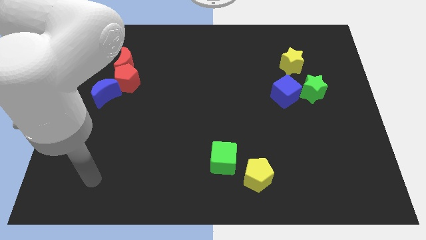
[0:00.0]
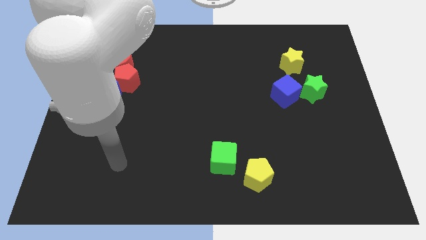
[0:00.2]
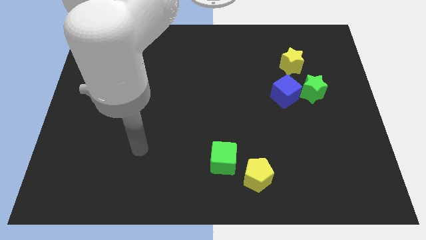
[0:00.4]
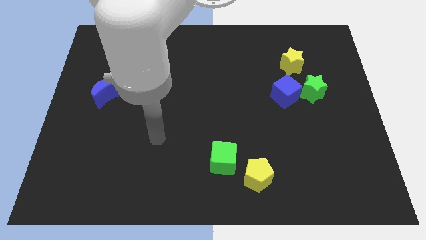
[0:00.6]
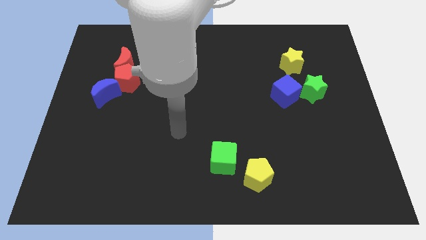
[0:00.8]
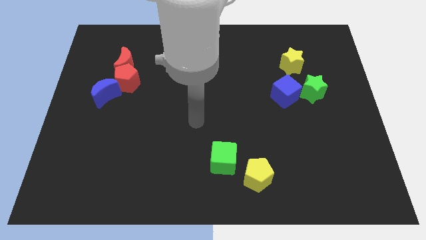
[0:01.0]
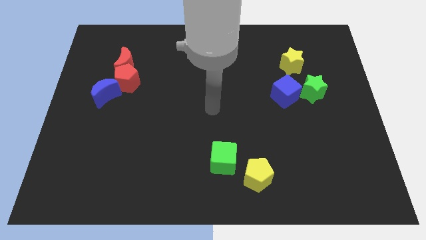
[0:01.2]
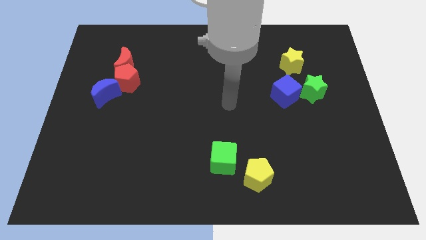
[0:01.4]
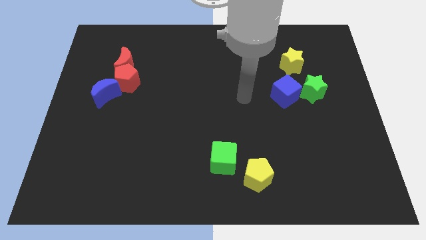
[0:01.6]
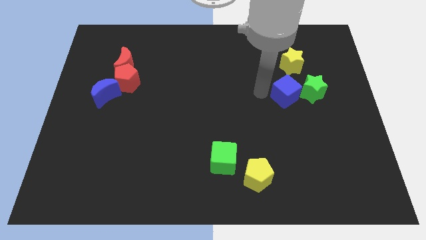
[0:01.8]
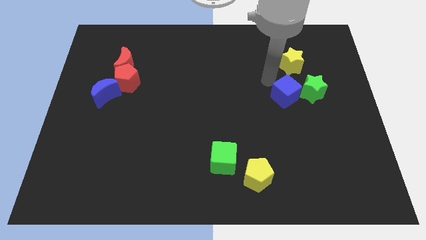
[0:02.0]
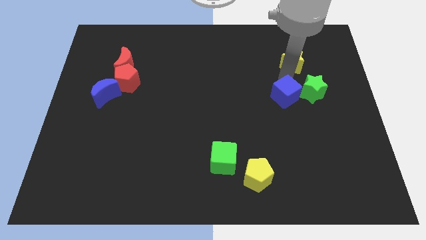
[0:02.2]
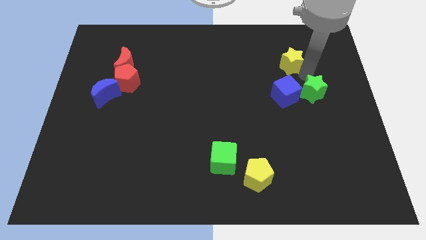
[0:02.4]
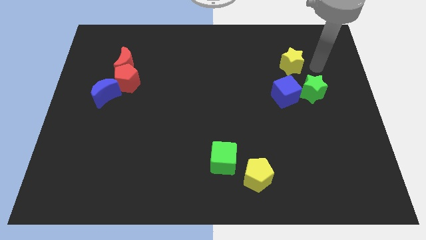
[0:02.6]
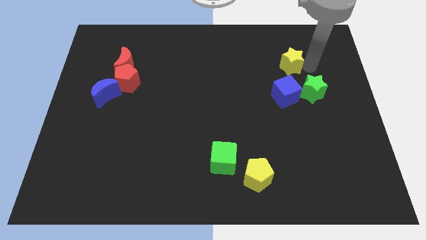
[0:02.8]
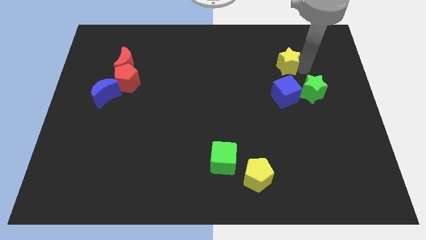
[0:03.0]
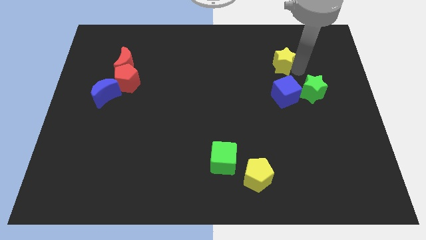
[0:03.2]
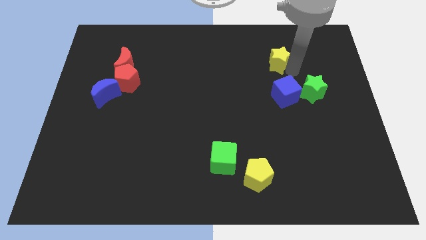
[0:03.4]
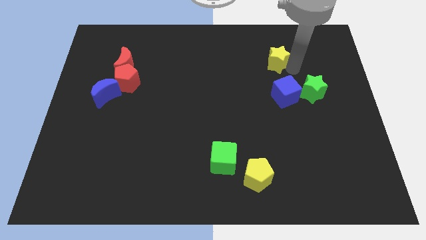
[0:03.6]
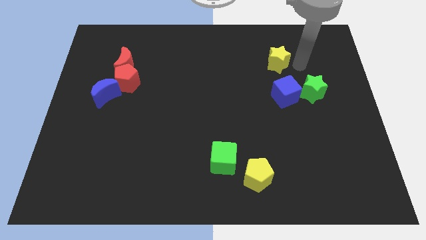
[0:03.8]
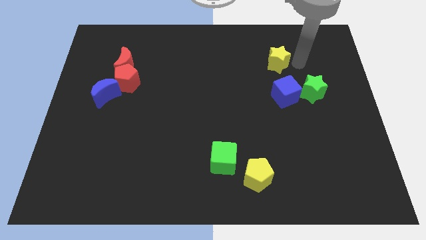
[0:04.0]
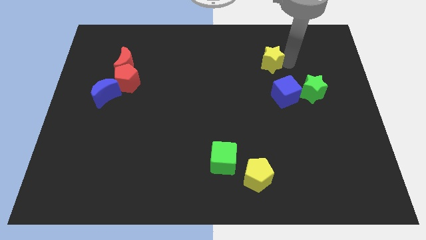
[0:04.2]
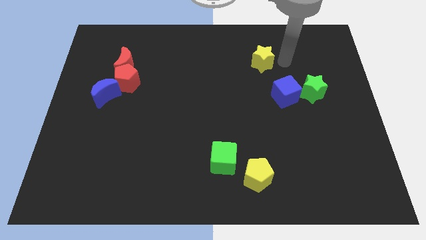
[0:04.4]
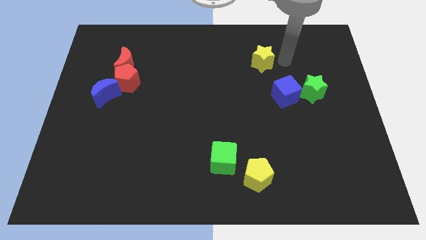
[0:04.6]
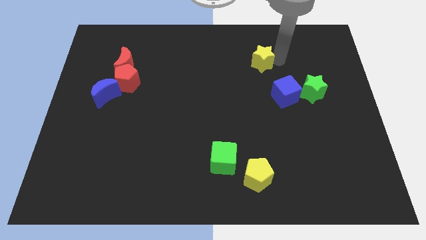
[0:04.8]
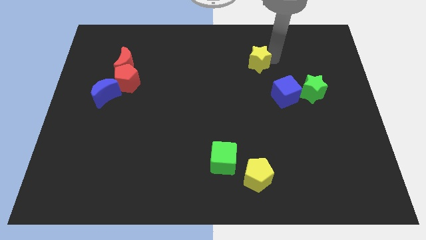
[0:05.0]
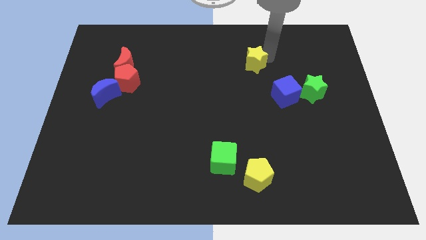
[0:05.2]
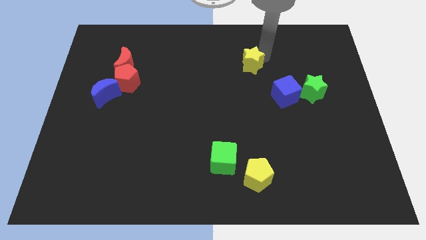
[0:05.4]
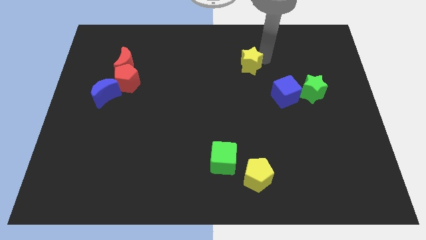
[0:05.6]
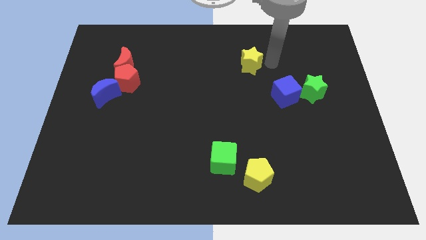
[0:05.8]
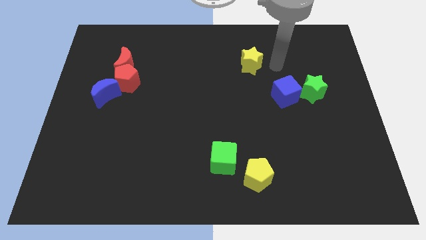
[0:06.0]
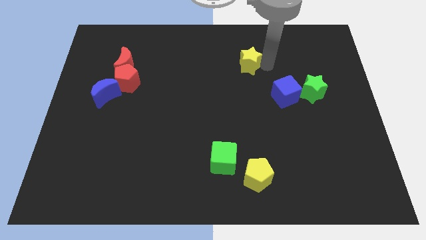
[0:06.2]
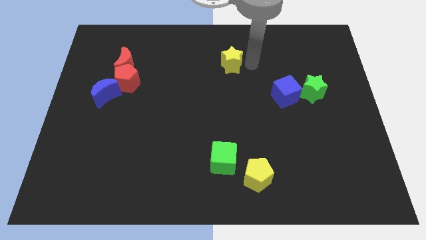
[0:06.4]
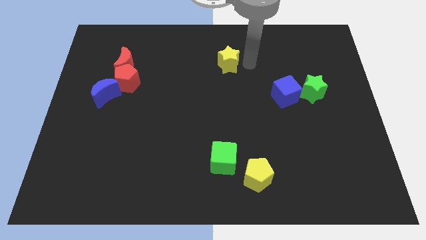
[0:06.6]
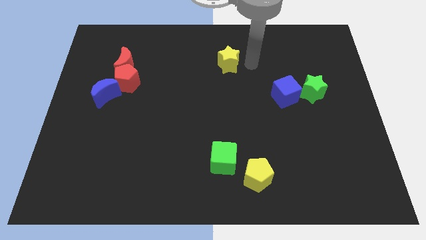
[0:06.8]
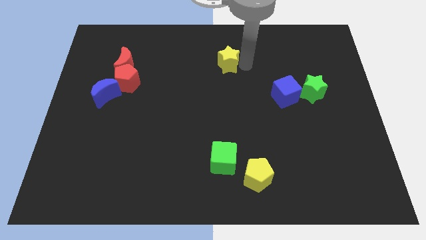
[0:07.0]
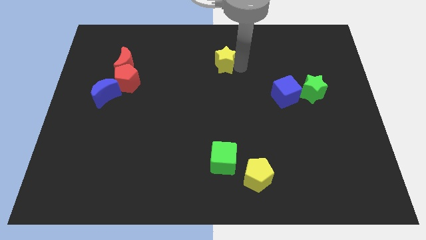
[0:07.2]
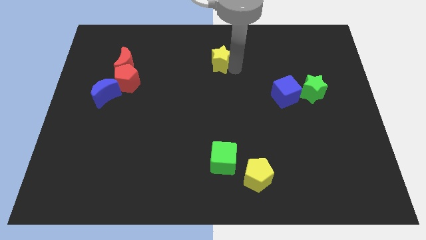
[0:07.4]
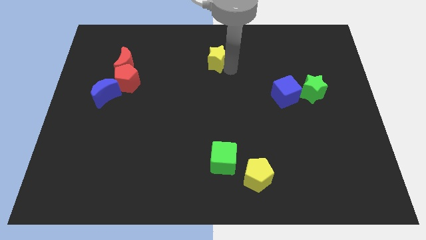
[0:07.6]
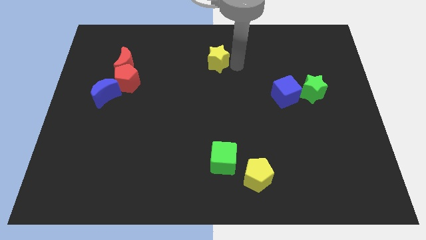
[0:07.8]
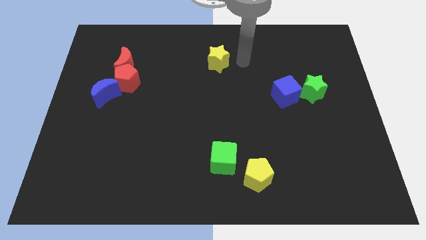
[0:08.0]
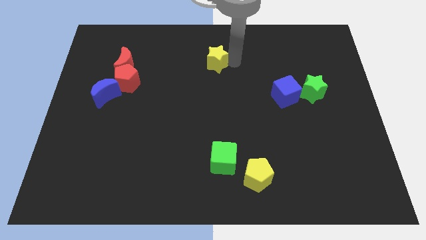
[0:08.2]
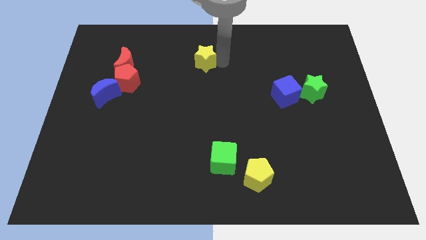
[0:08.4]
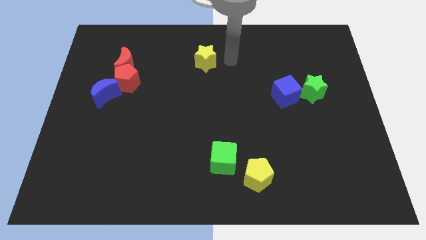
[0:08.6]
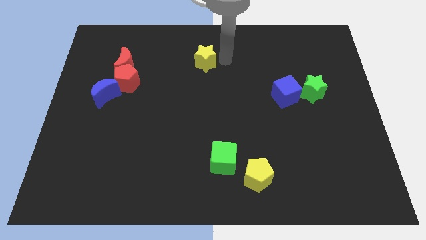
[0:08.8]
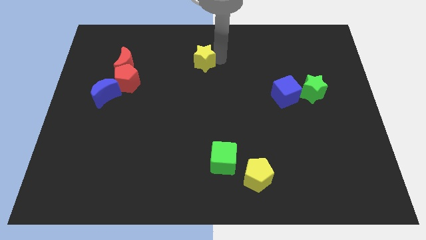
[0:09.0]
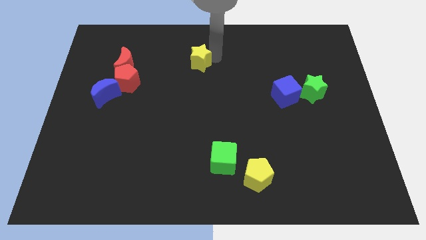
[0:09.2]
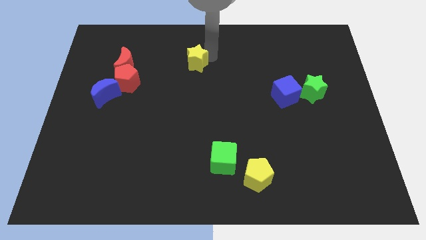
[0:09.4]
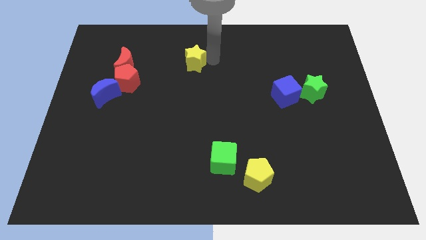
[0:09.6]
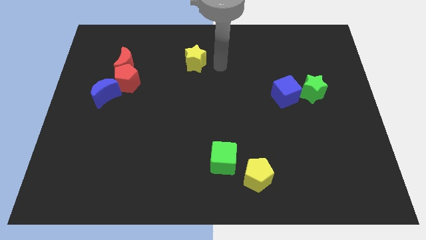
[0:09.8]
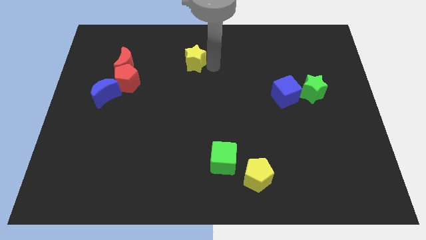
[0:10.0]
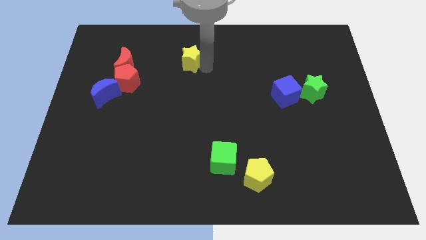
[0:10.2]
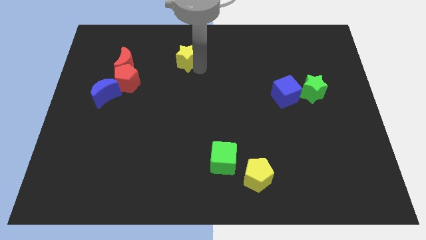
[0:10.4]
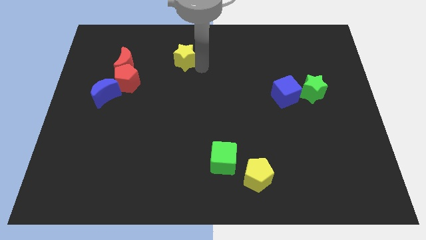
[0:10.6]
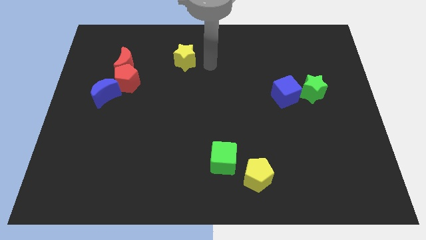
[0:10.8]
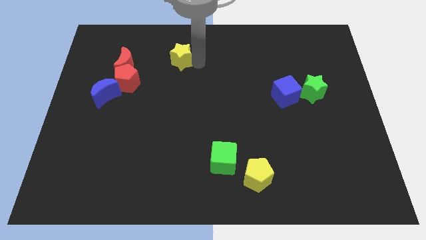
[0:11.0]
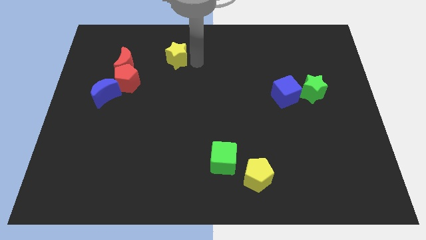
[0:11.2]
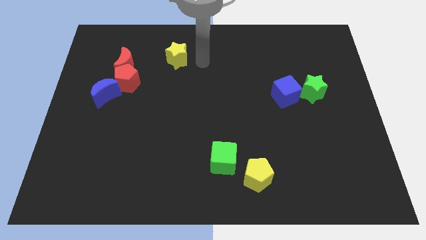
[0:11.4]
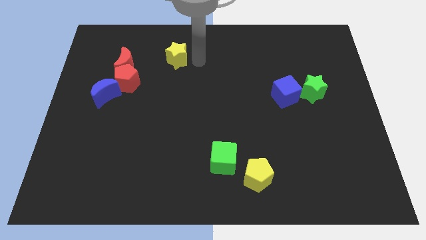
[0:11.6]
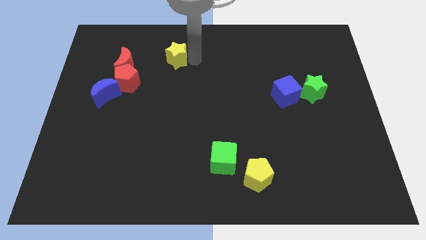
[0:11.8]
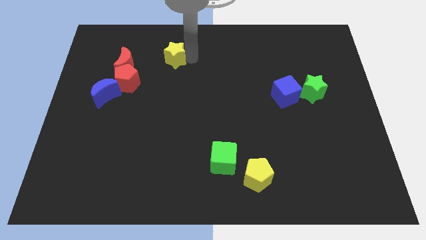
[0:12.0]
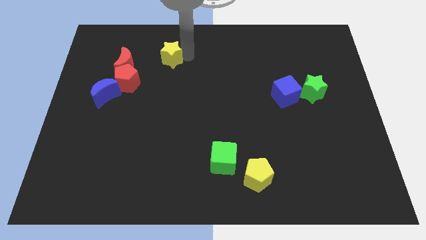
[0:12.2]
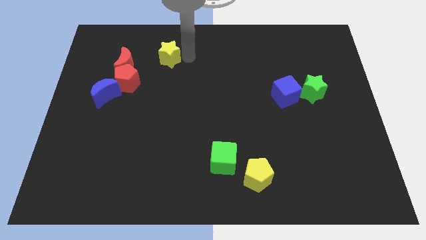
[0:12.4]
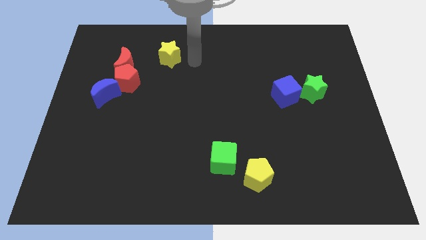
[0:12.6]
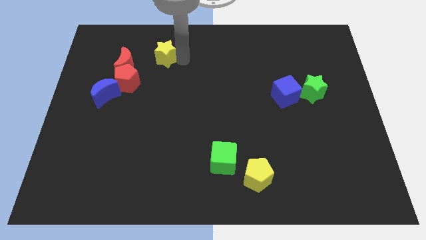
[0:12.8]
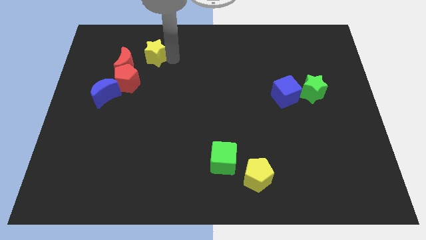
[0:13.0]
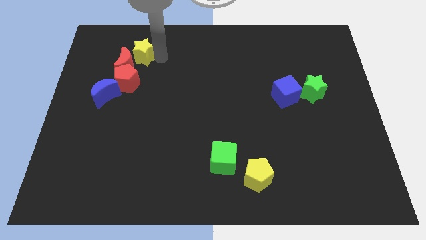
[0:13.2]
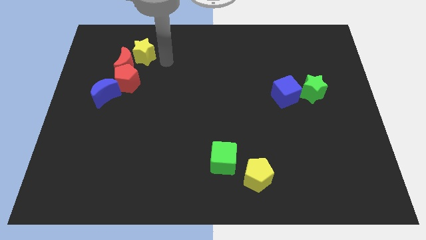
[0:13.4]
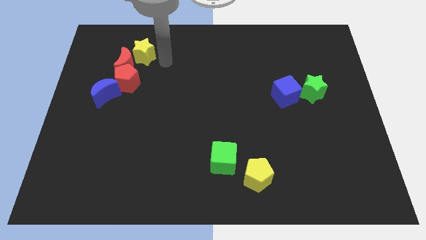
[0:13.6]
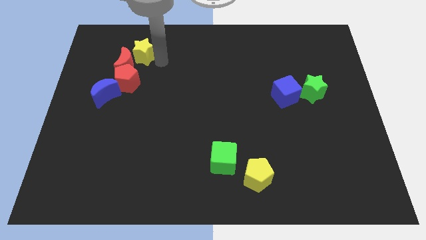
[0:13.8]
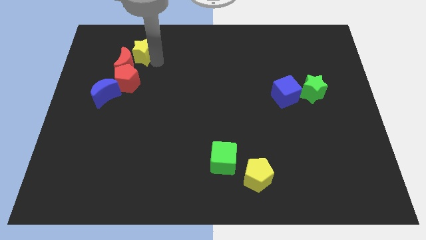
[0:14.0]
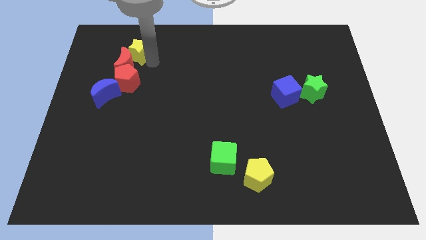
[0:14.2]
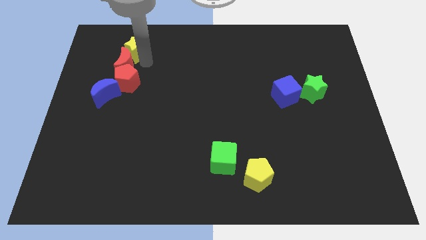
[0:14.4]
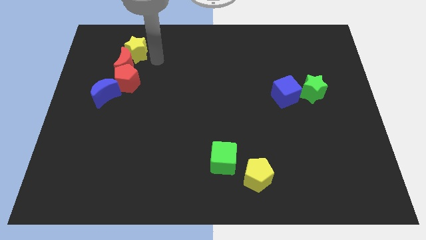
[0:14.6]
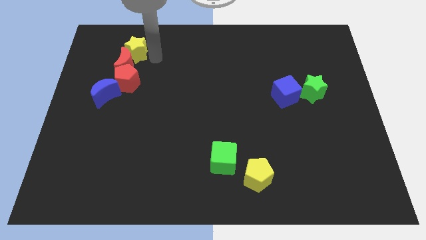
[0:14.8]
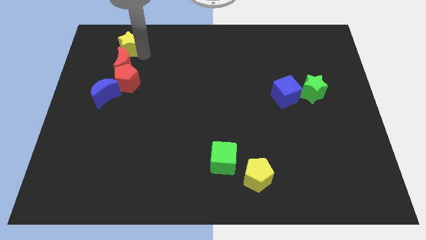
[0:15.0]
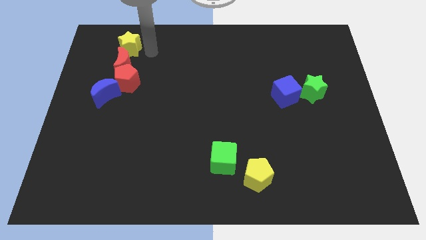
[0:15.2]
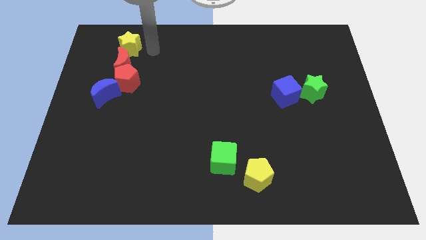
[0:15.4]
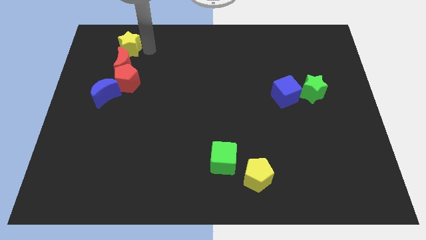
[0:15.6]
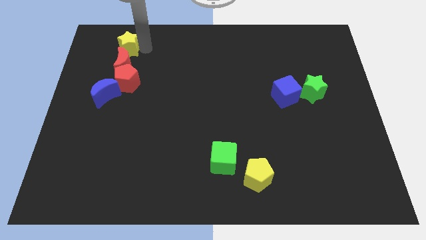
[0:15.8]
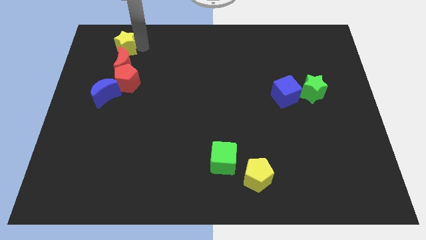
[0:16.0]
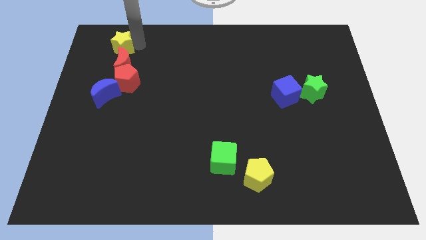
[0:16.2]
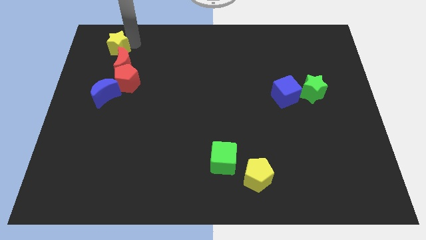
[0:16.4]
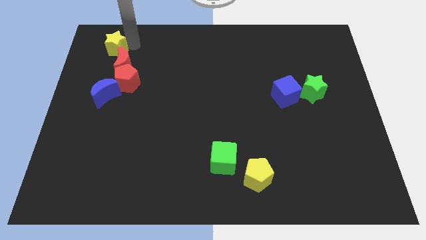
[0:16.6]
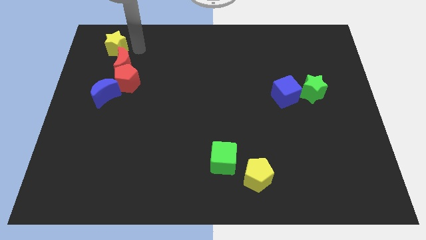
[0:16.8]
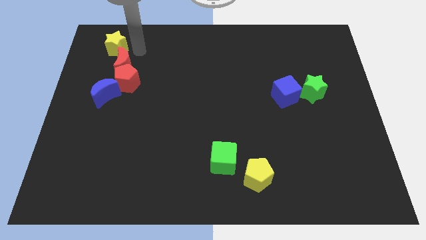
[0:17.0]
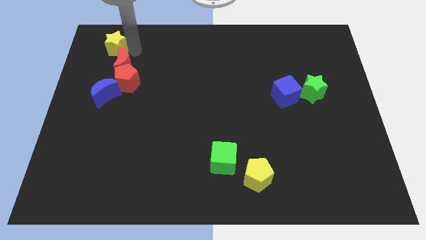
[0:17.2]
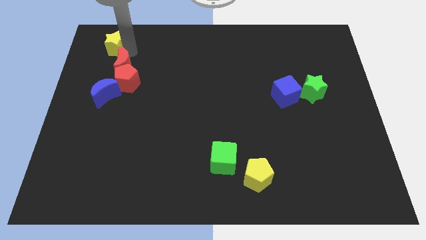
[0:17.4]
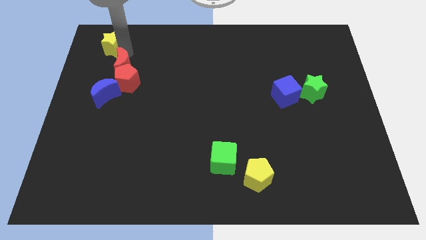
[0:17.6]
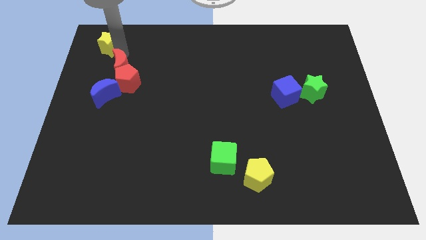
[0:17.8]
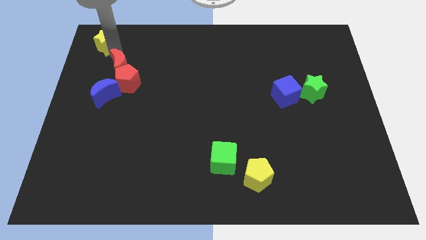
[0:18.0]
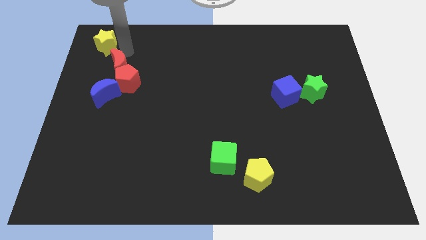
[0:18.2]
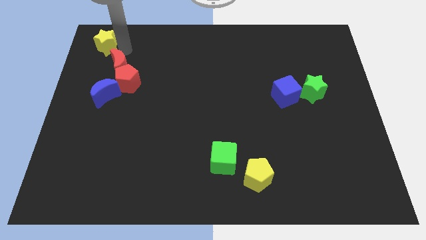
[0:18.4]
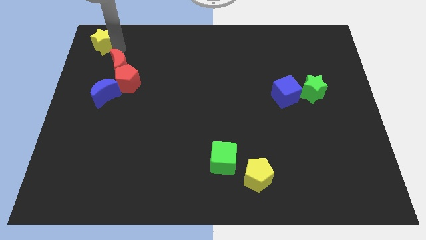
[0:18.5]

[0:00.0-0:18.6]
move the yellow star to the top left
